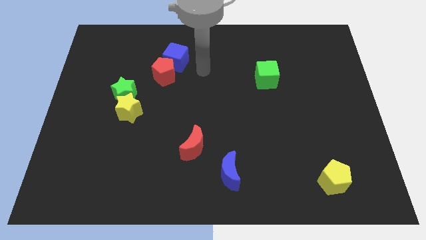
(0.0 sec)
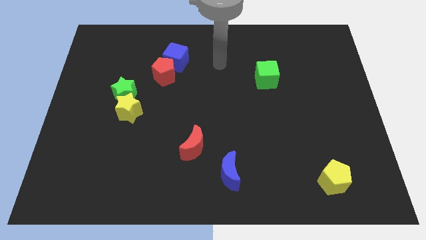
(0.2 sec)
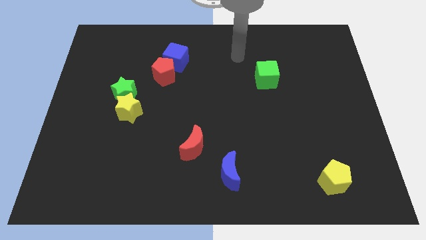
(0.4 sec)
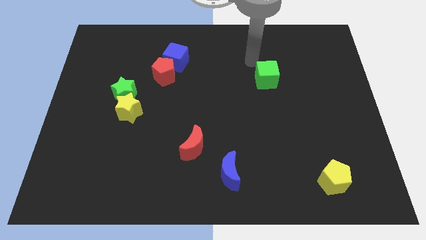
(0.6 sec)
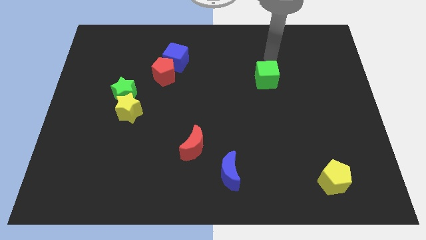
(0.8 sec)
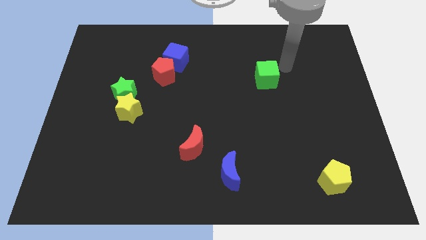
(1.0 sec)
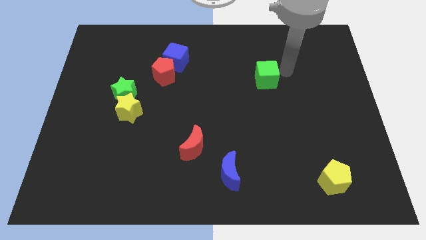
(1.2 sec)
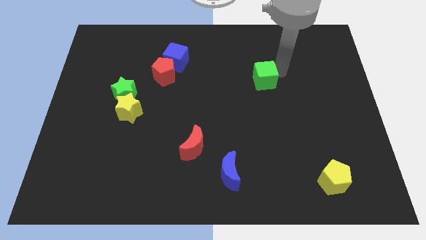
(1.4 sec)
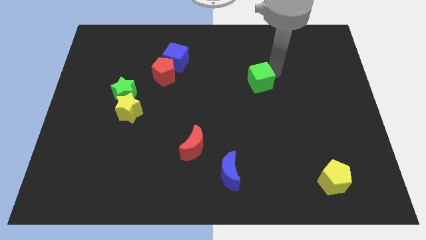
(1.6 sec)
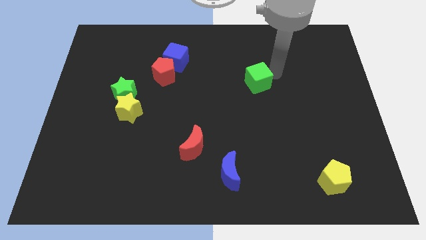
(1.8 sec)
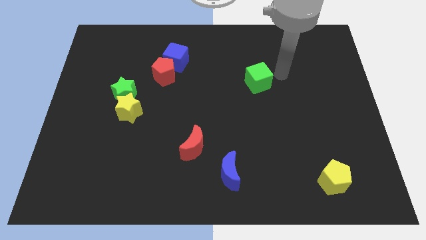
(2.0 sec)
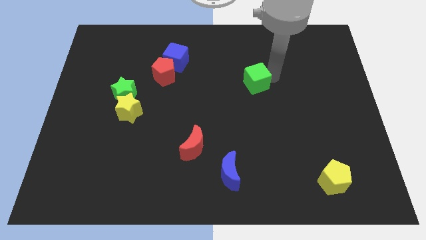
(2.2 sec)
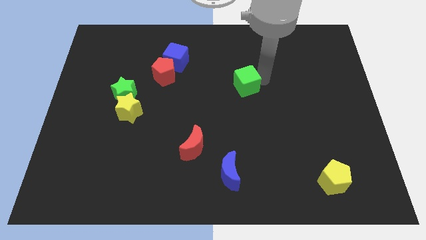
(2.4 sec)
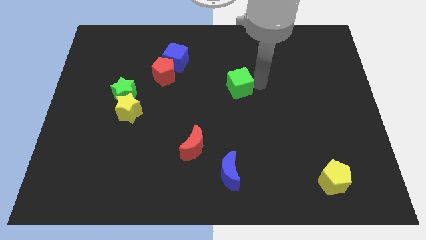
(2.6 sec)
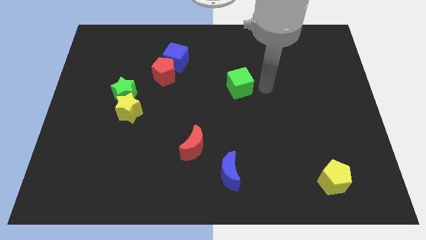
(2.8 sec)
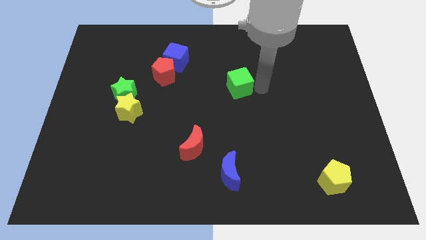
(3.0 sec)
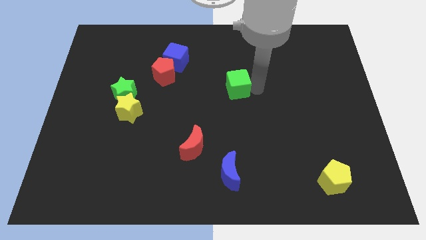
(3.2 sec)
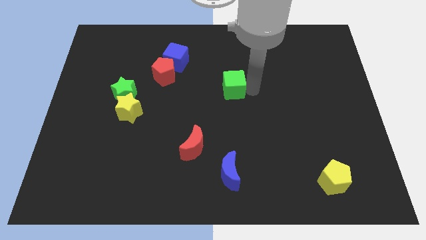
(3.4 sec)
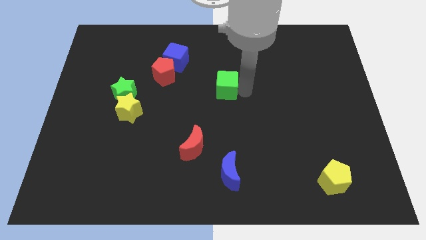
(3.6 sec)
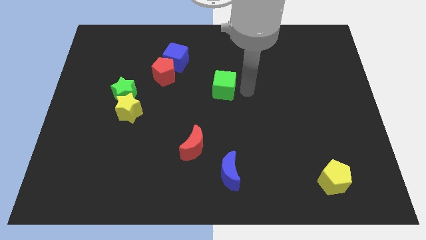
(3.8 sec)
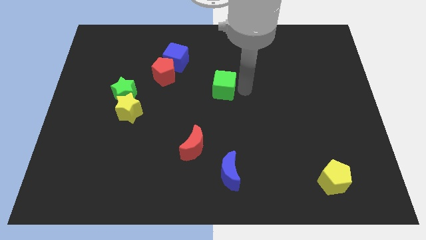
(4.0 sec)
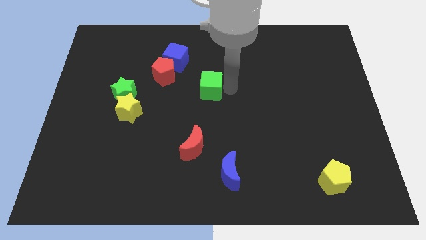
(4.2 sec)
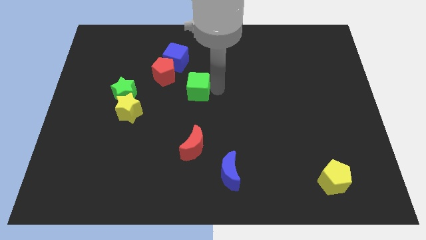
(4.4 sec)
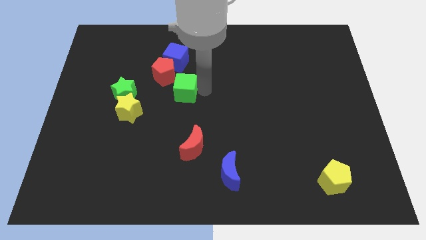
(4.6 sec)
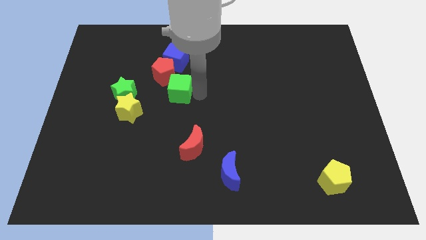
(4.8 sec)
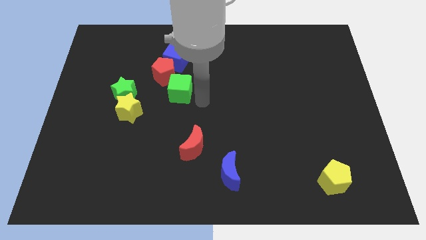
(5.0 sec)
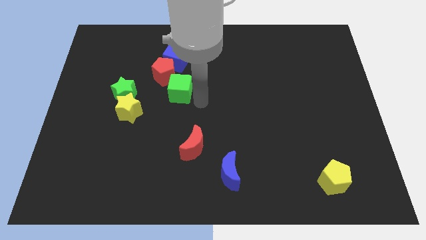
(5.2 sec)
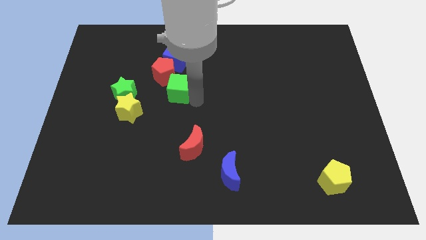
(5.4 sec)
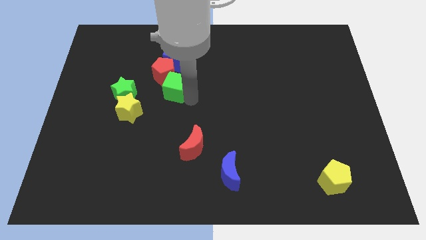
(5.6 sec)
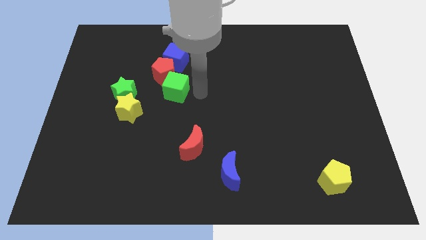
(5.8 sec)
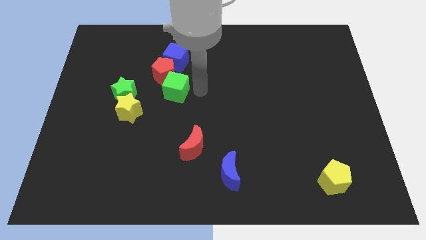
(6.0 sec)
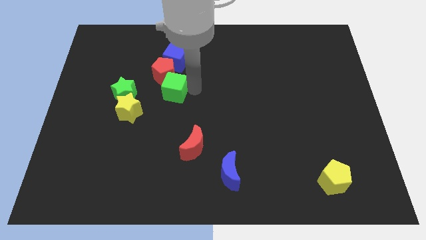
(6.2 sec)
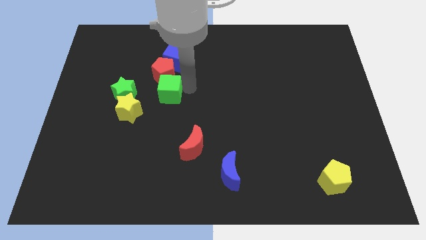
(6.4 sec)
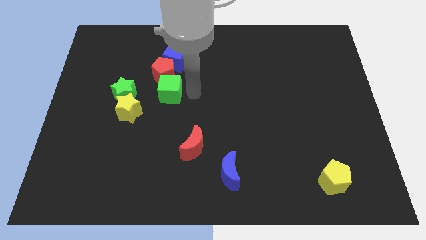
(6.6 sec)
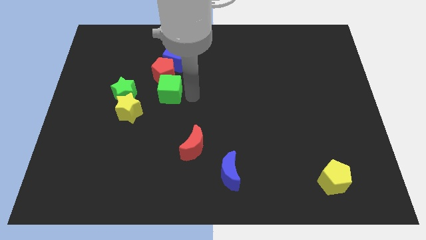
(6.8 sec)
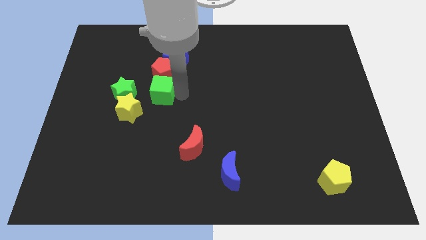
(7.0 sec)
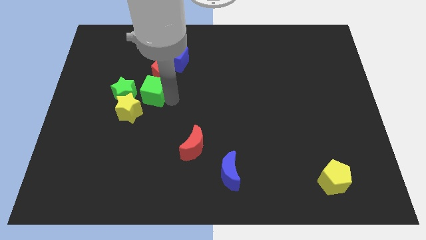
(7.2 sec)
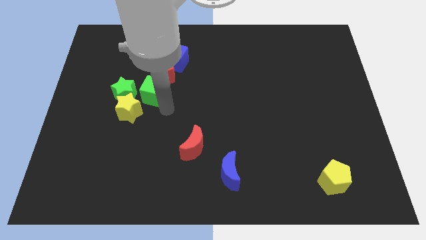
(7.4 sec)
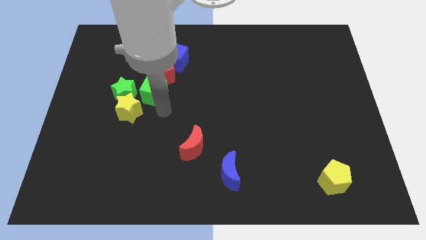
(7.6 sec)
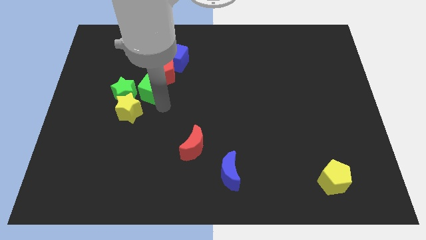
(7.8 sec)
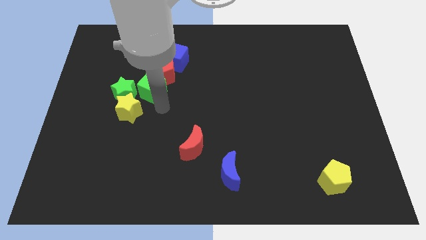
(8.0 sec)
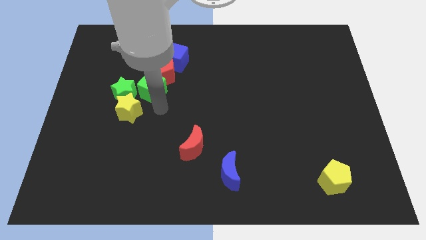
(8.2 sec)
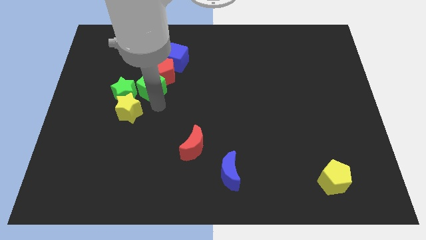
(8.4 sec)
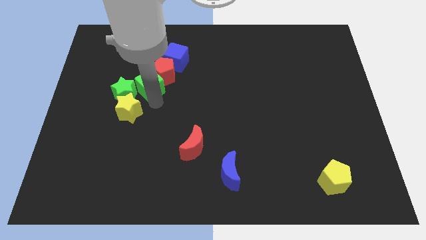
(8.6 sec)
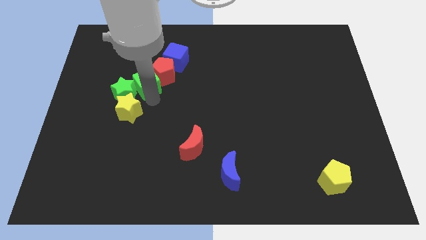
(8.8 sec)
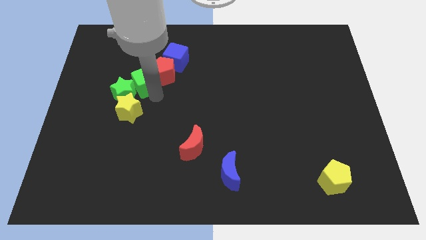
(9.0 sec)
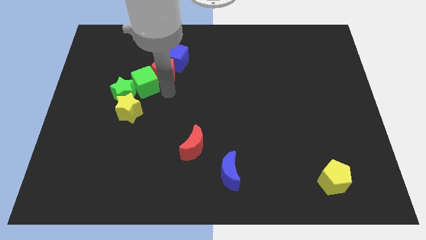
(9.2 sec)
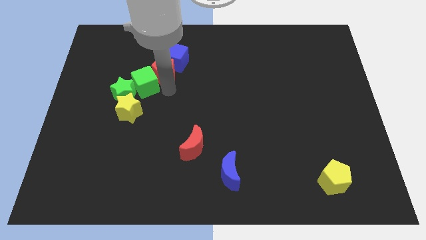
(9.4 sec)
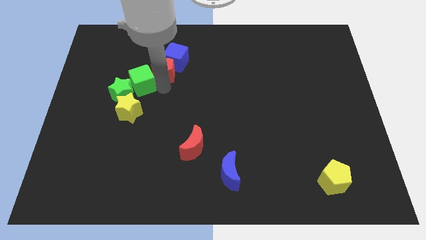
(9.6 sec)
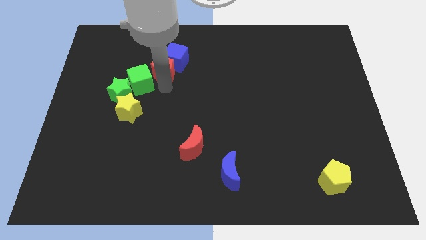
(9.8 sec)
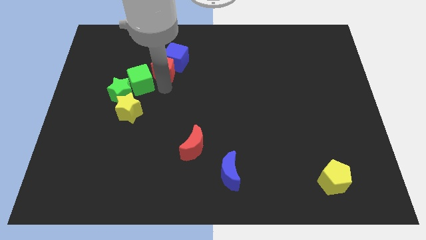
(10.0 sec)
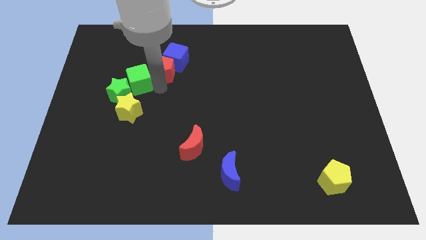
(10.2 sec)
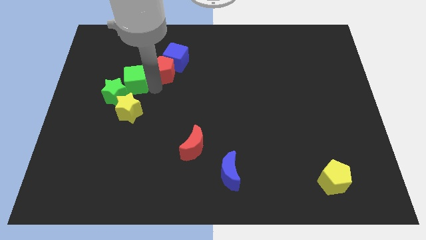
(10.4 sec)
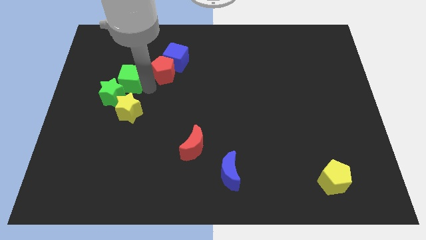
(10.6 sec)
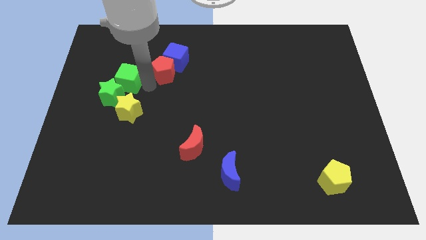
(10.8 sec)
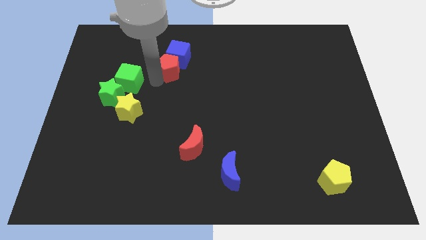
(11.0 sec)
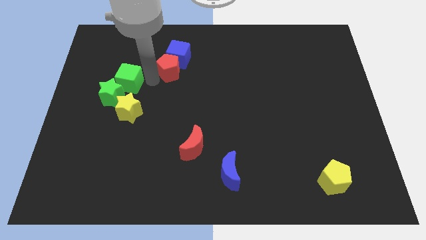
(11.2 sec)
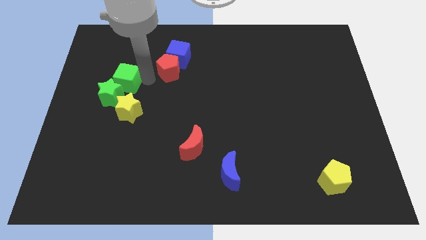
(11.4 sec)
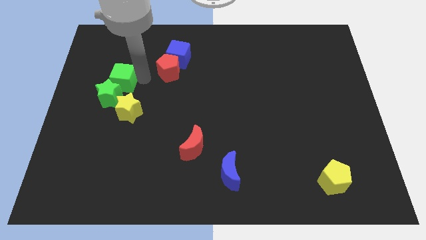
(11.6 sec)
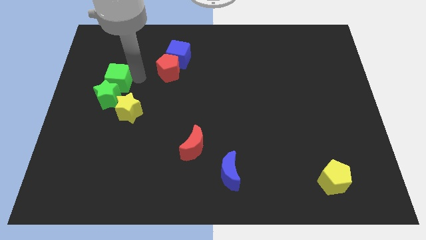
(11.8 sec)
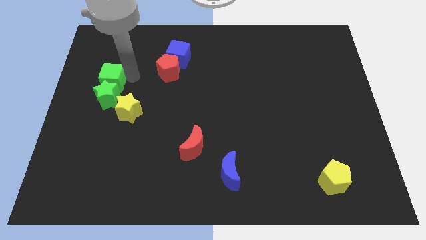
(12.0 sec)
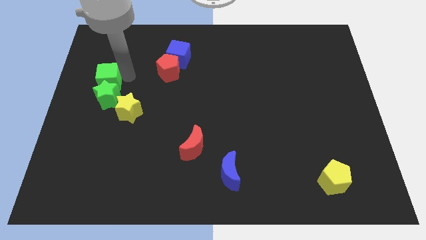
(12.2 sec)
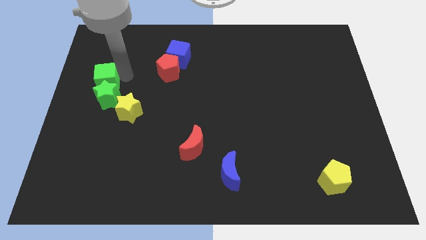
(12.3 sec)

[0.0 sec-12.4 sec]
push the green cube to the center left

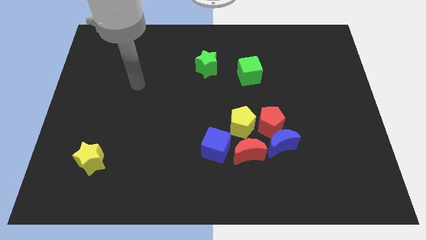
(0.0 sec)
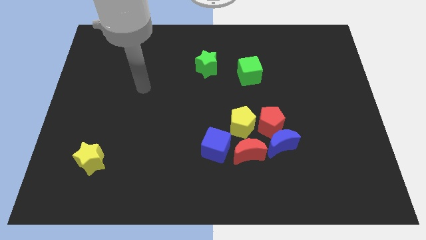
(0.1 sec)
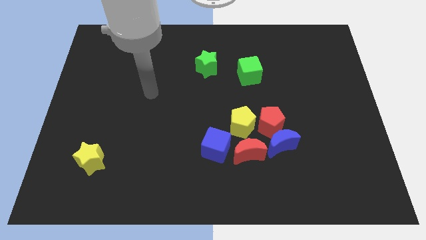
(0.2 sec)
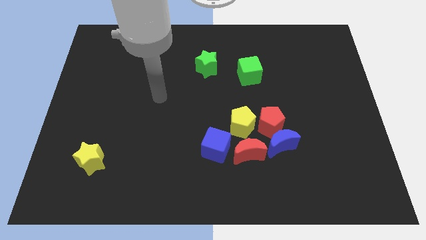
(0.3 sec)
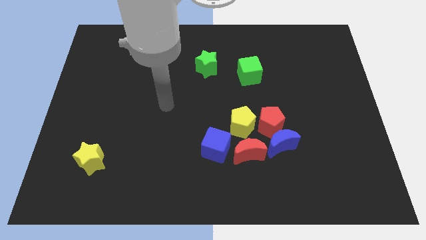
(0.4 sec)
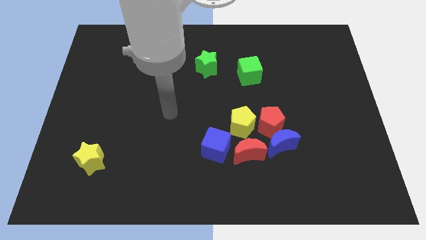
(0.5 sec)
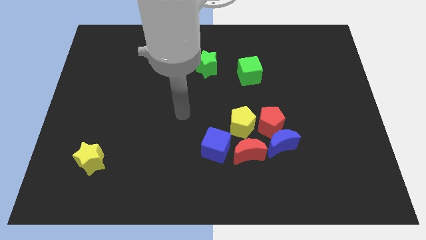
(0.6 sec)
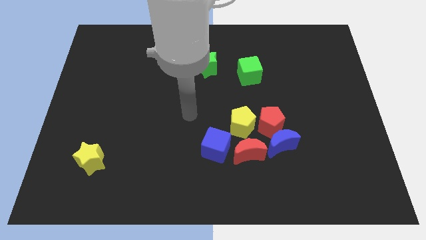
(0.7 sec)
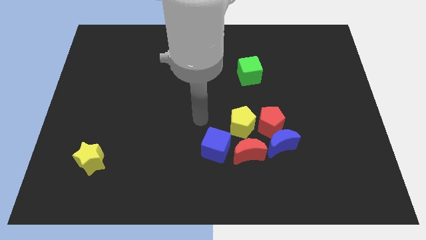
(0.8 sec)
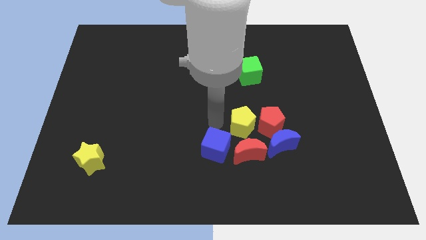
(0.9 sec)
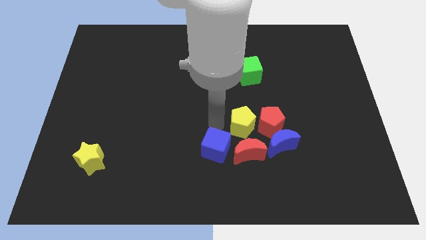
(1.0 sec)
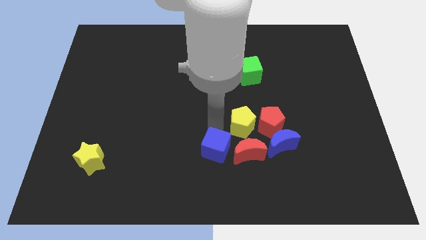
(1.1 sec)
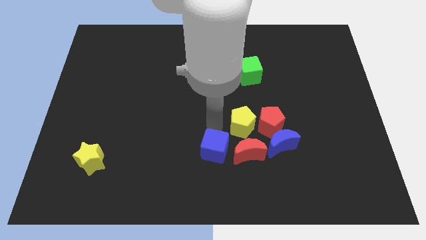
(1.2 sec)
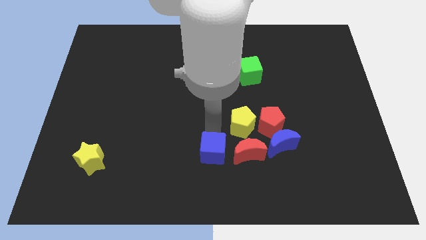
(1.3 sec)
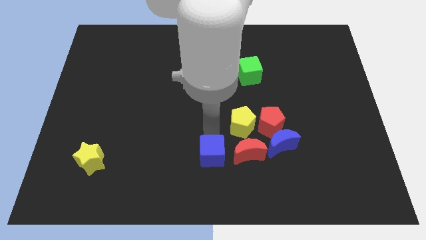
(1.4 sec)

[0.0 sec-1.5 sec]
put the blue cube to the bottom side
